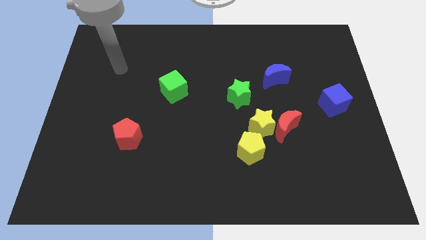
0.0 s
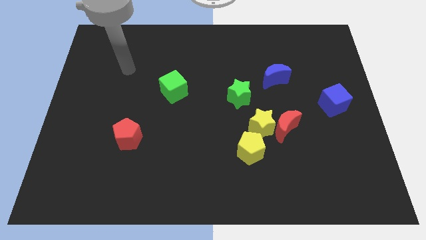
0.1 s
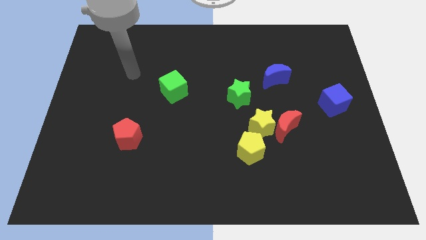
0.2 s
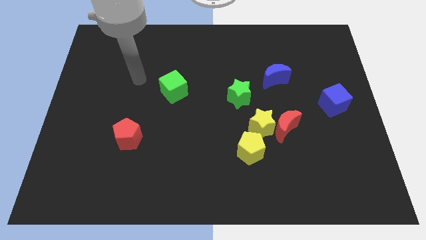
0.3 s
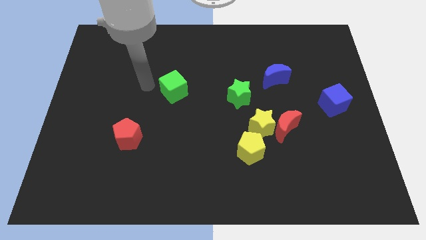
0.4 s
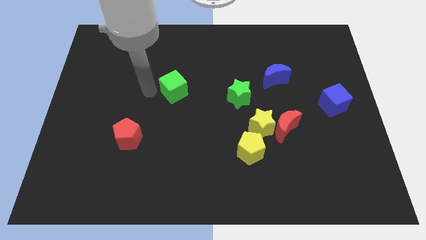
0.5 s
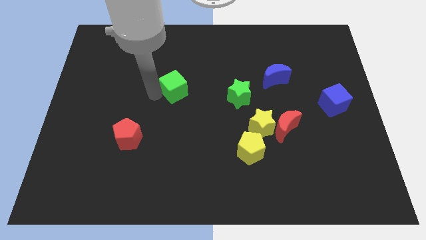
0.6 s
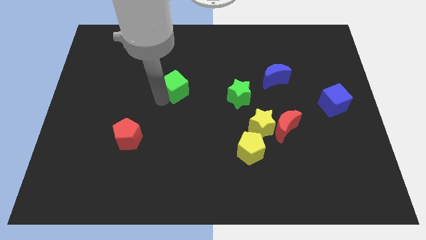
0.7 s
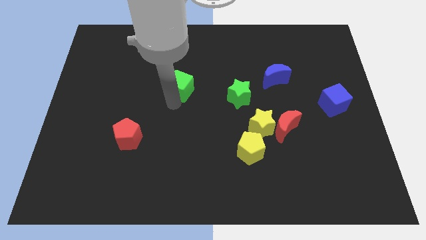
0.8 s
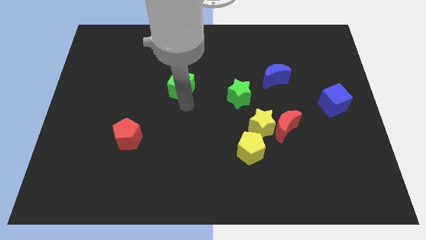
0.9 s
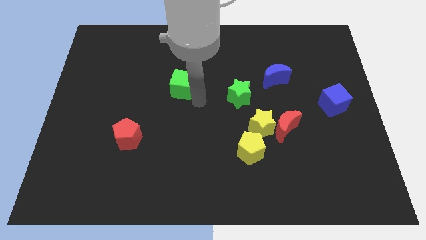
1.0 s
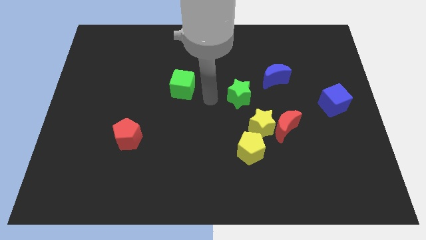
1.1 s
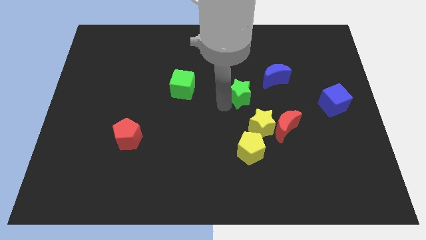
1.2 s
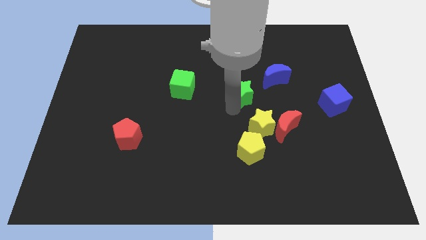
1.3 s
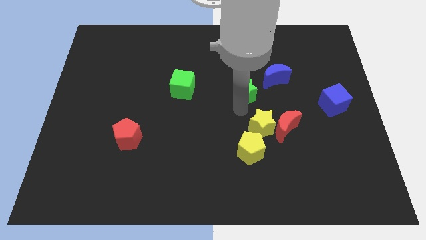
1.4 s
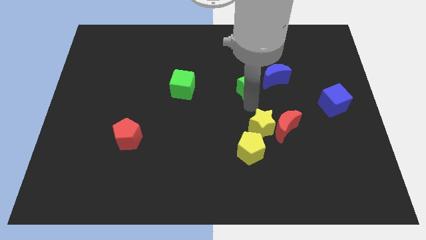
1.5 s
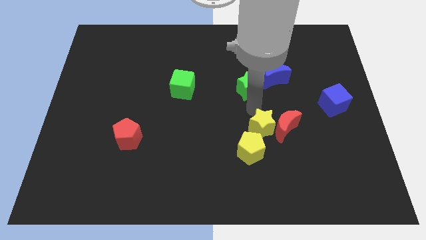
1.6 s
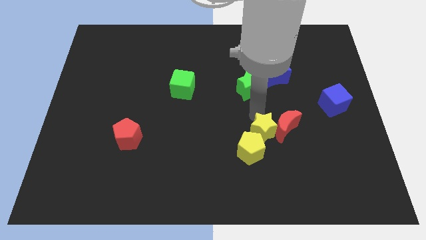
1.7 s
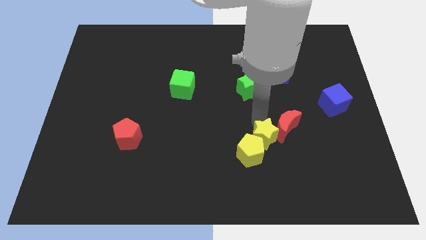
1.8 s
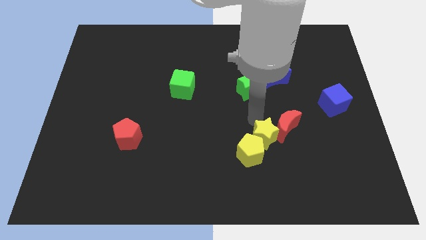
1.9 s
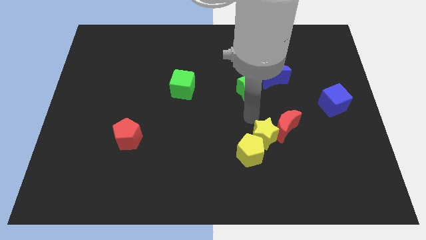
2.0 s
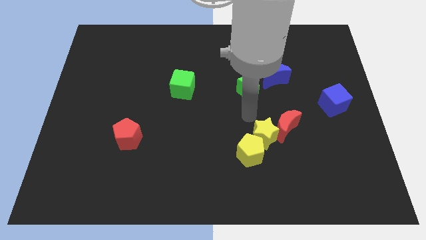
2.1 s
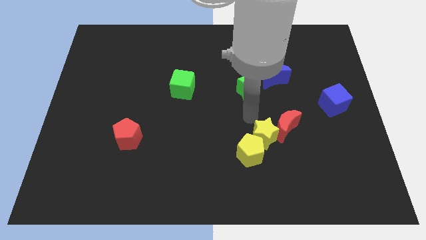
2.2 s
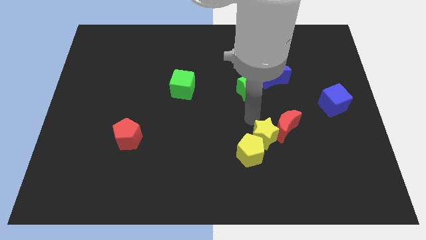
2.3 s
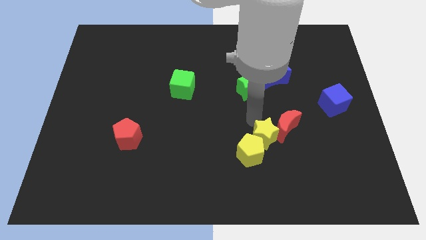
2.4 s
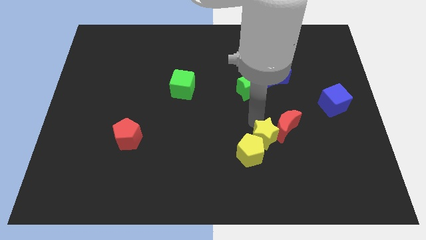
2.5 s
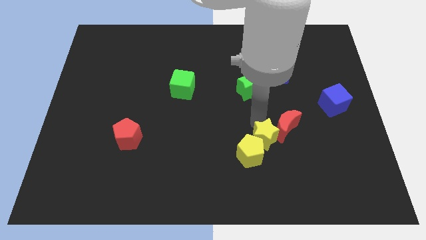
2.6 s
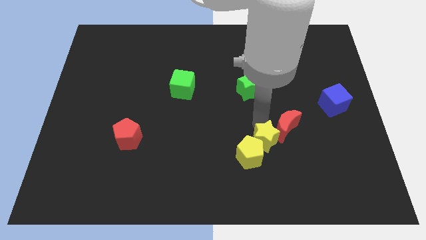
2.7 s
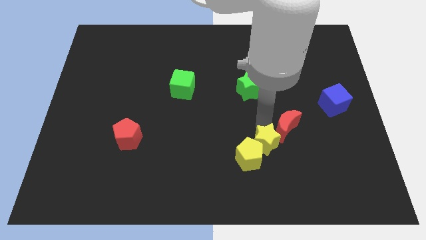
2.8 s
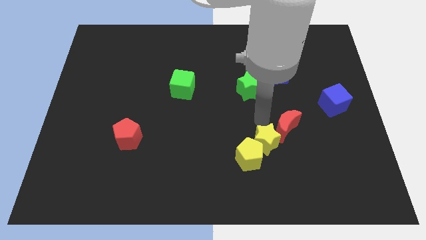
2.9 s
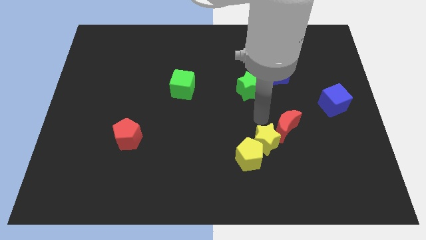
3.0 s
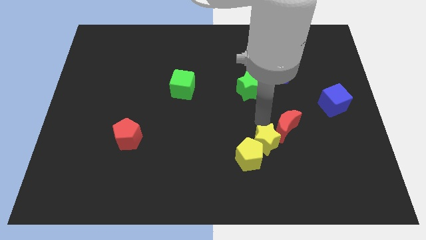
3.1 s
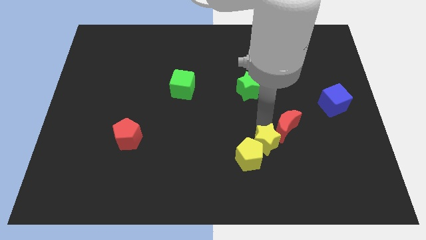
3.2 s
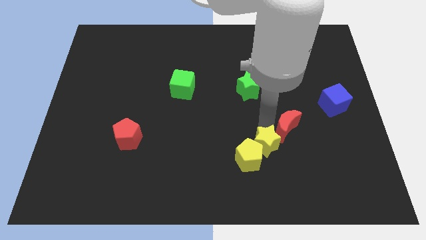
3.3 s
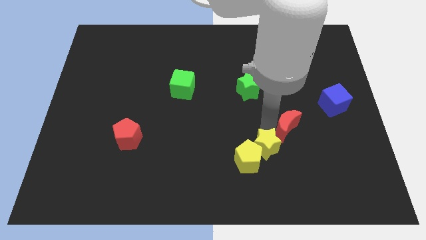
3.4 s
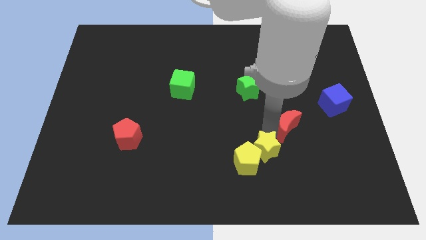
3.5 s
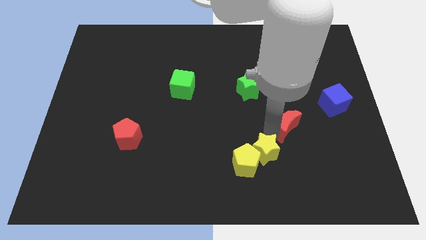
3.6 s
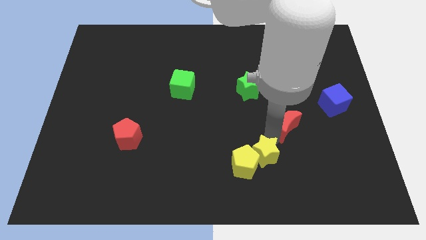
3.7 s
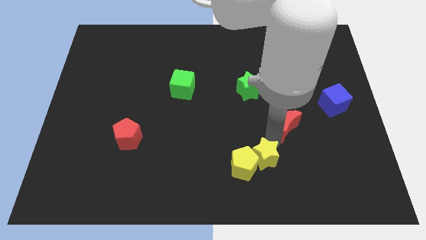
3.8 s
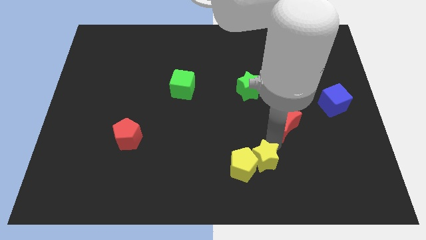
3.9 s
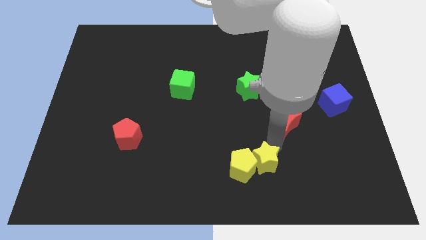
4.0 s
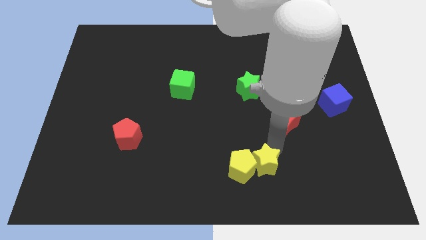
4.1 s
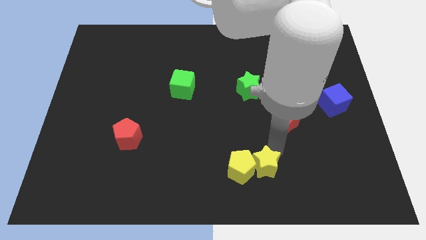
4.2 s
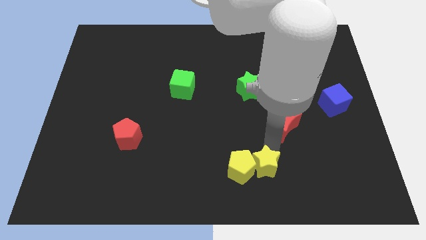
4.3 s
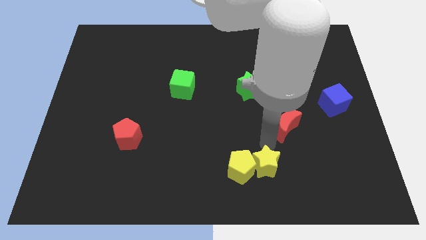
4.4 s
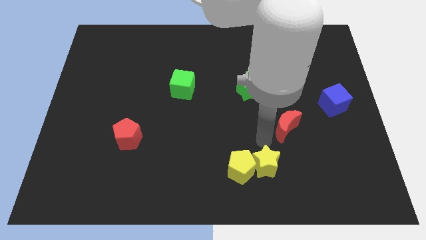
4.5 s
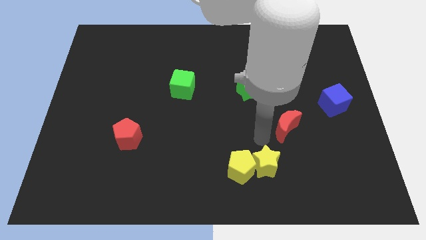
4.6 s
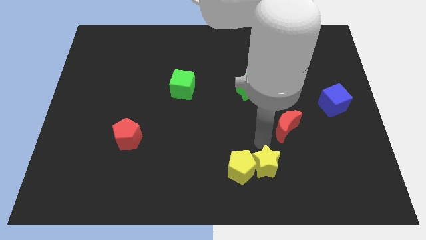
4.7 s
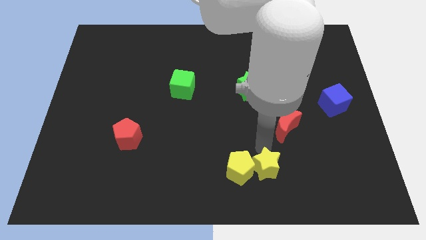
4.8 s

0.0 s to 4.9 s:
separate the yellow star from the group

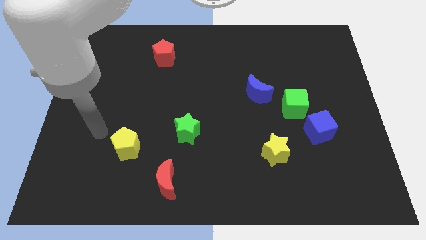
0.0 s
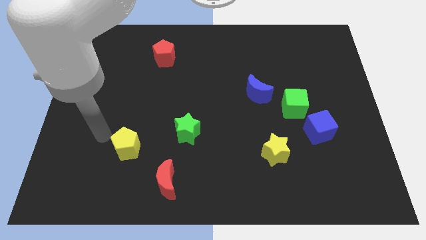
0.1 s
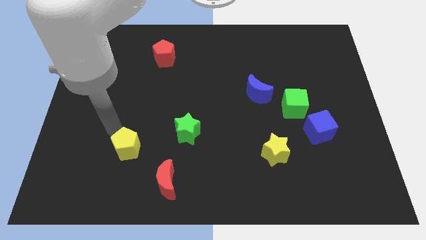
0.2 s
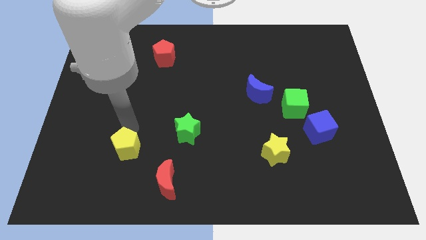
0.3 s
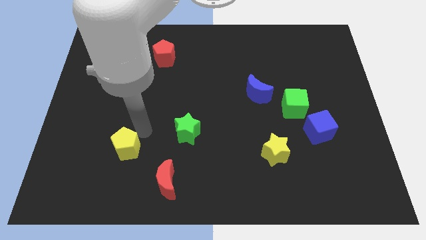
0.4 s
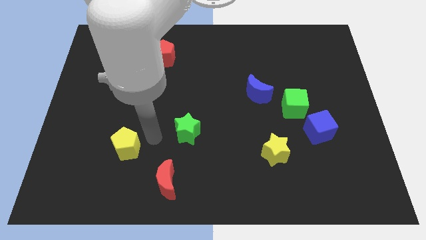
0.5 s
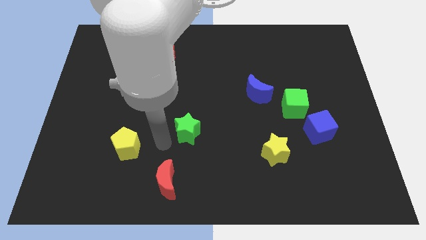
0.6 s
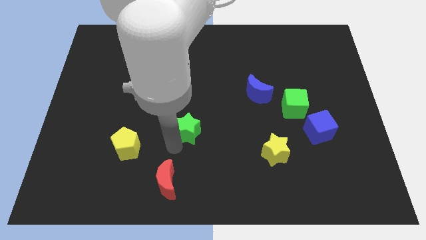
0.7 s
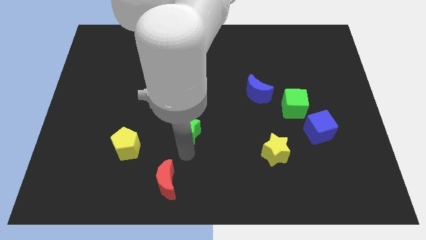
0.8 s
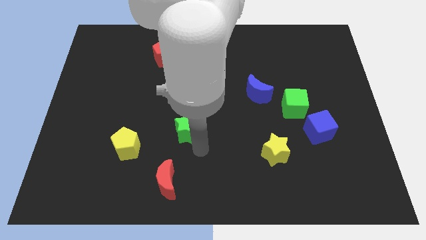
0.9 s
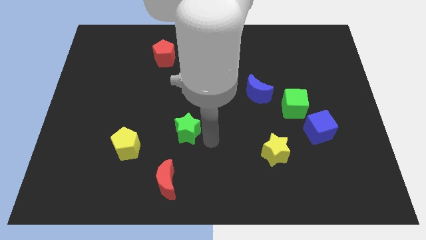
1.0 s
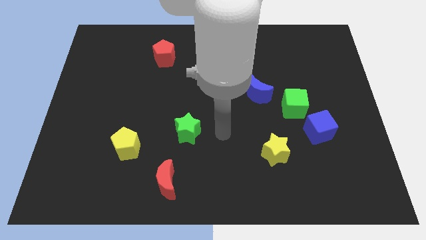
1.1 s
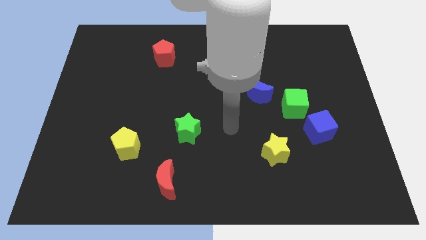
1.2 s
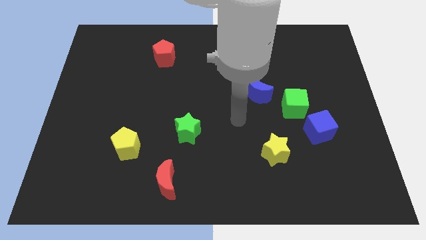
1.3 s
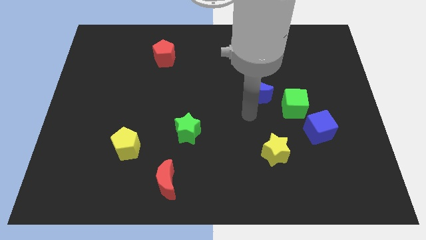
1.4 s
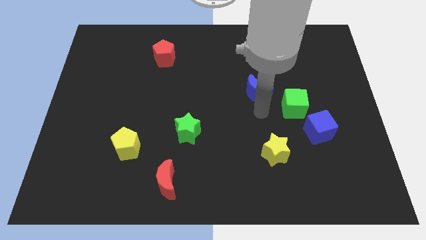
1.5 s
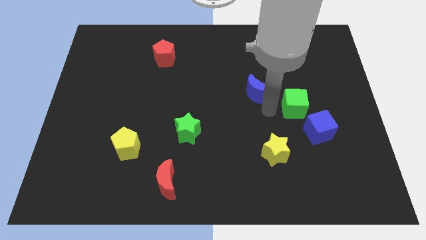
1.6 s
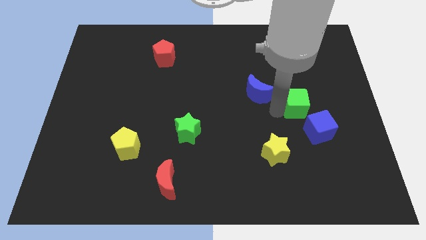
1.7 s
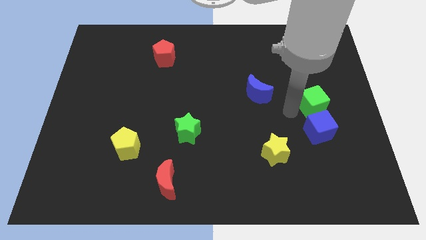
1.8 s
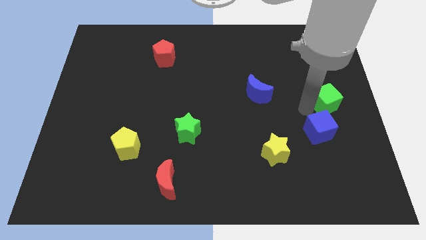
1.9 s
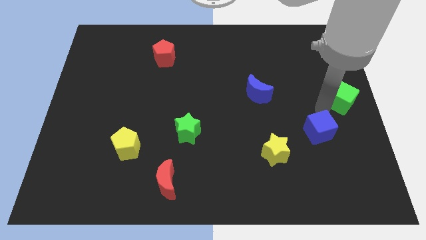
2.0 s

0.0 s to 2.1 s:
pull the blue cube apart from the green cube

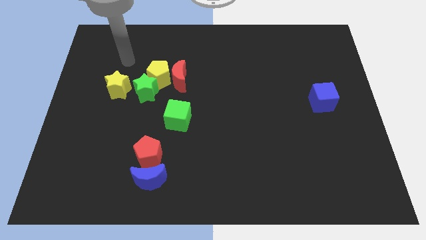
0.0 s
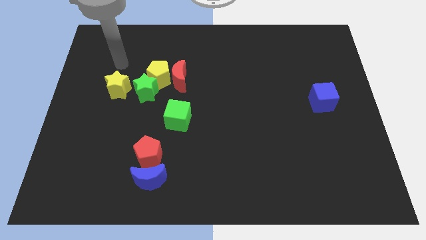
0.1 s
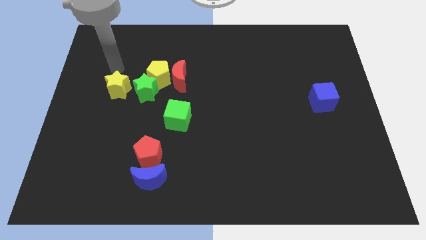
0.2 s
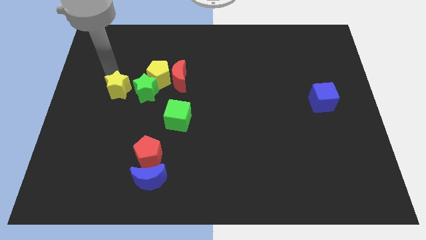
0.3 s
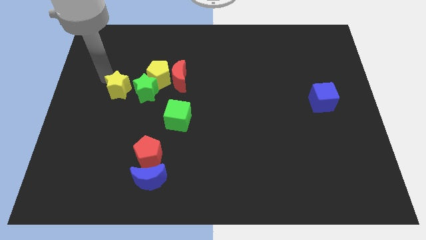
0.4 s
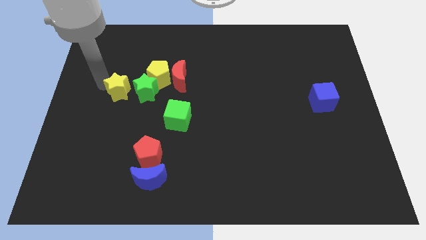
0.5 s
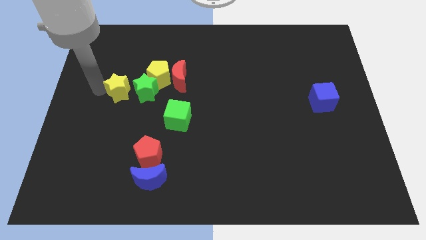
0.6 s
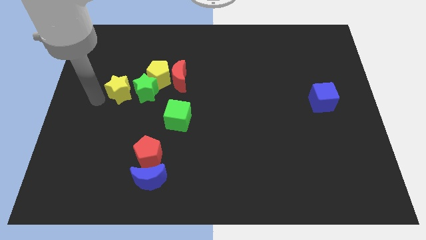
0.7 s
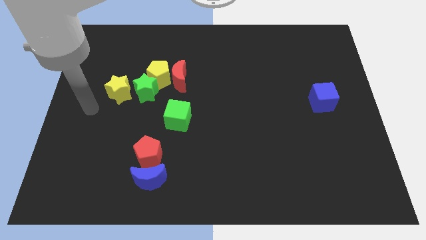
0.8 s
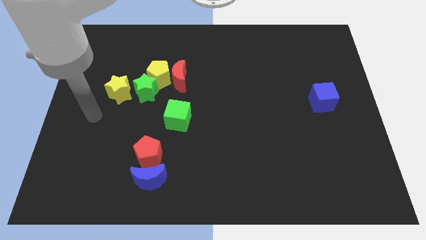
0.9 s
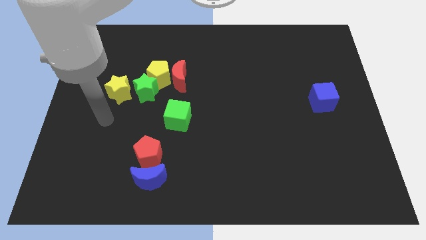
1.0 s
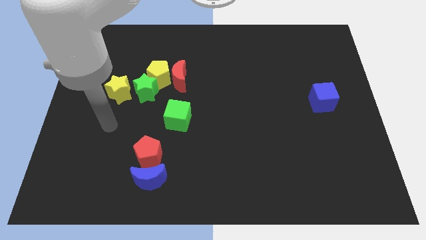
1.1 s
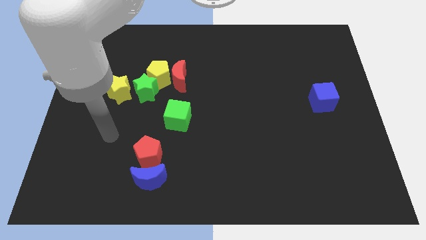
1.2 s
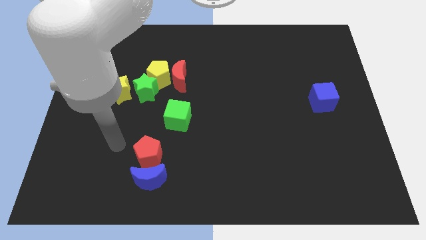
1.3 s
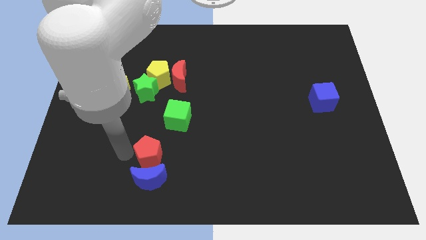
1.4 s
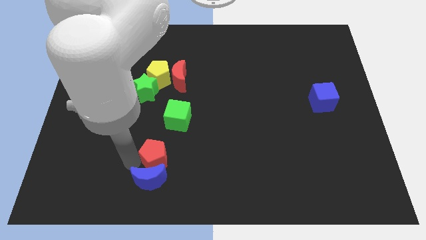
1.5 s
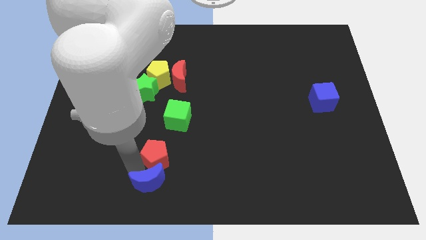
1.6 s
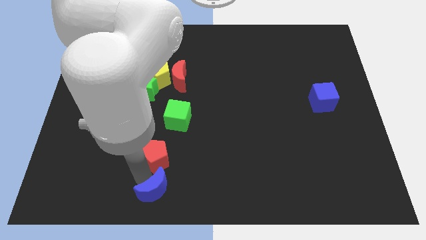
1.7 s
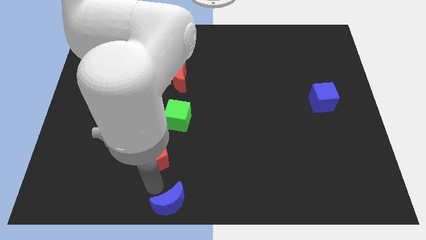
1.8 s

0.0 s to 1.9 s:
pull the red pentagon apart from the blue moon

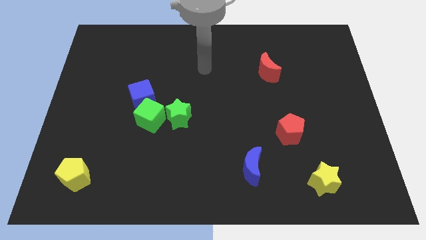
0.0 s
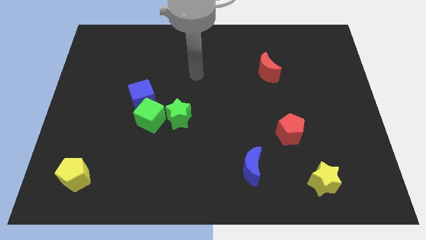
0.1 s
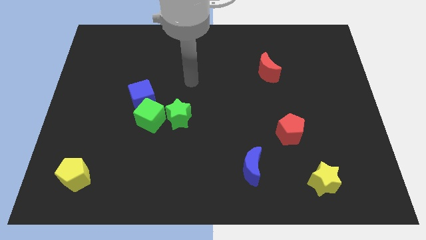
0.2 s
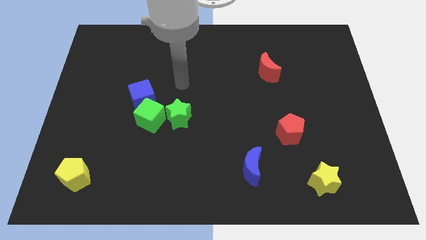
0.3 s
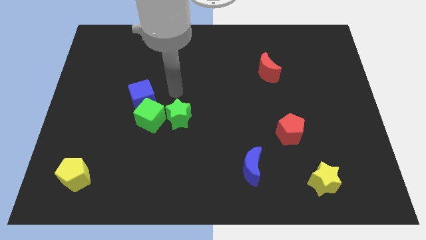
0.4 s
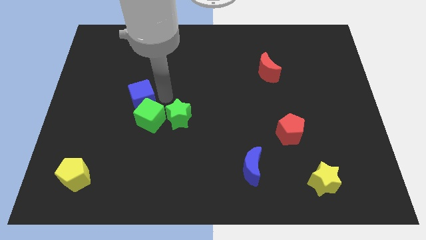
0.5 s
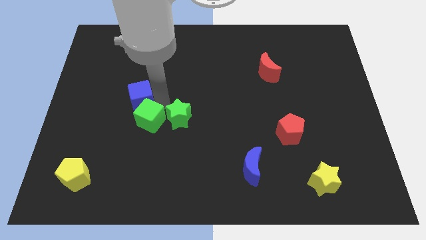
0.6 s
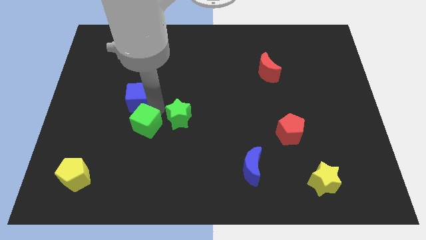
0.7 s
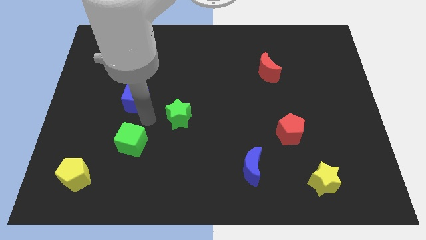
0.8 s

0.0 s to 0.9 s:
separate the blue cube from the green cube
